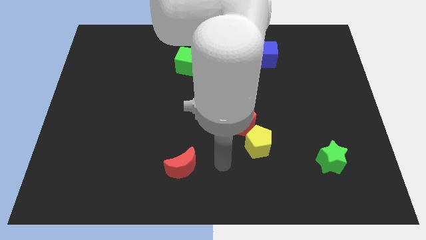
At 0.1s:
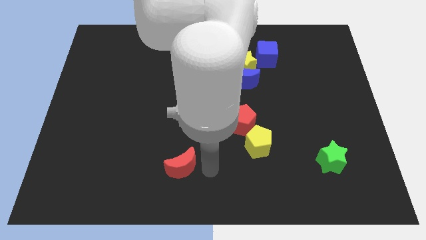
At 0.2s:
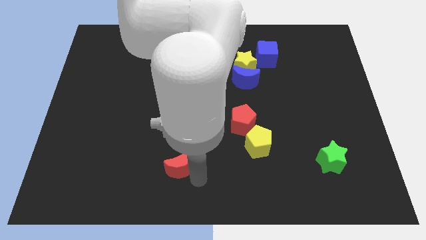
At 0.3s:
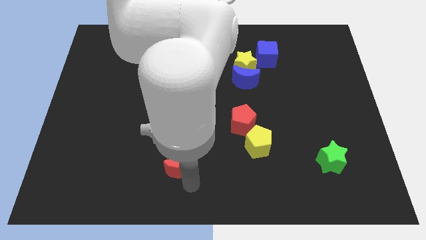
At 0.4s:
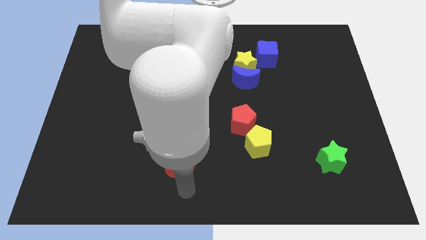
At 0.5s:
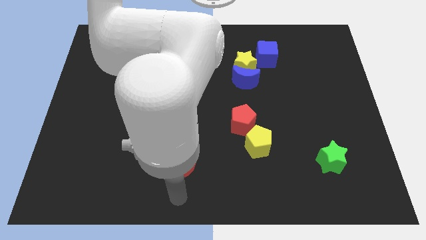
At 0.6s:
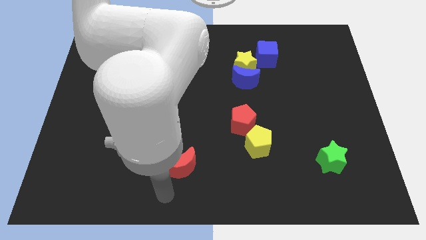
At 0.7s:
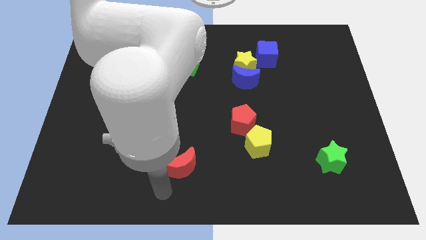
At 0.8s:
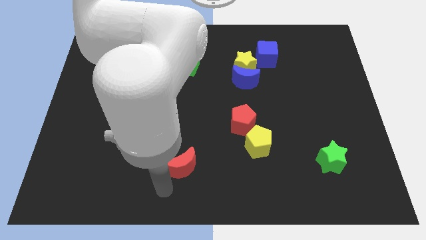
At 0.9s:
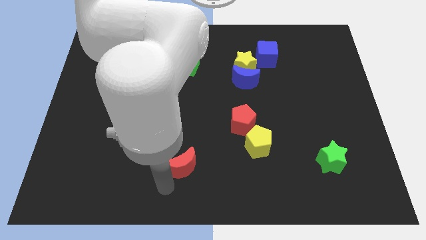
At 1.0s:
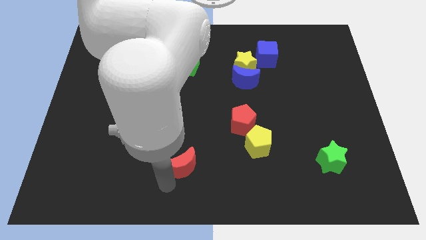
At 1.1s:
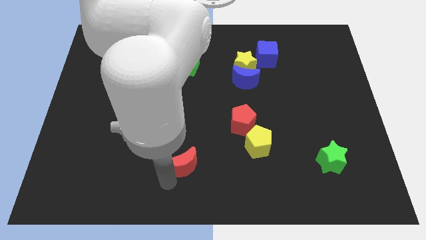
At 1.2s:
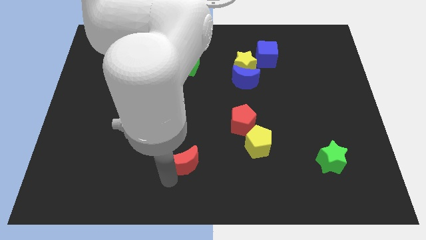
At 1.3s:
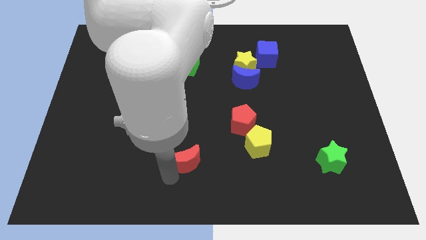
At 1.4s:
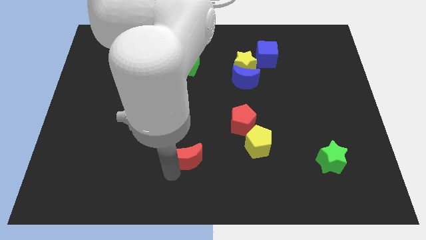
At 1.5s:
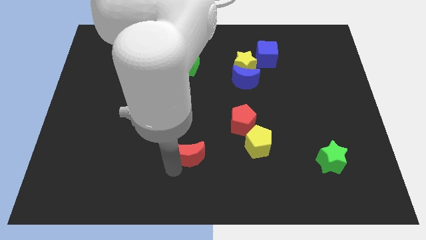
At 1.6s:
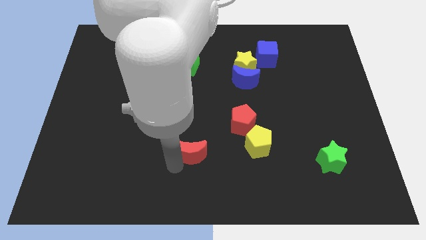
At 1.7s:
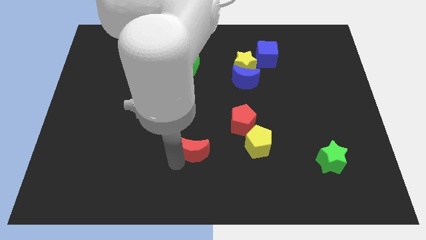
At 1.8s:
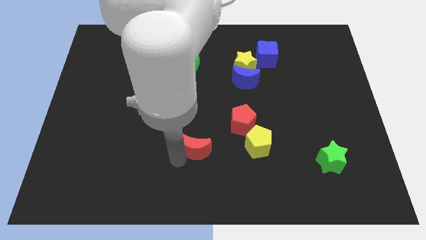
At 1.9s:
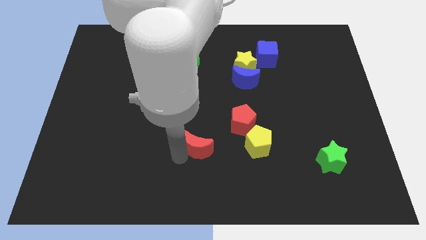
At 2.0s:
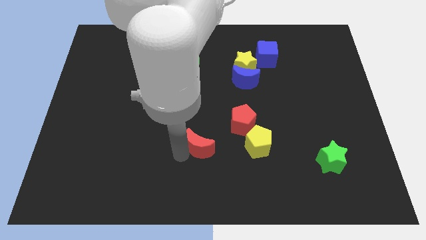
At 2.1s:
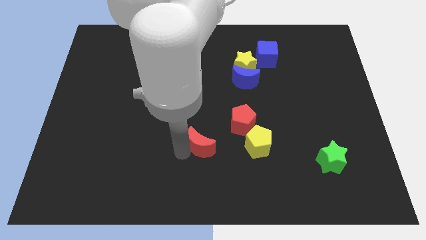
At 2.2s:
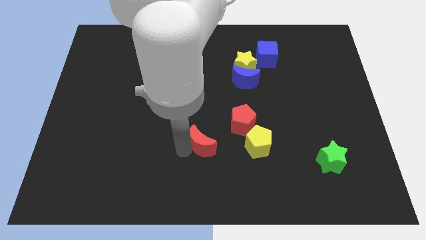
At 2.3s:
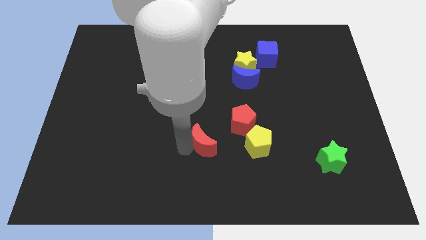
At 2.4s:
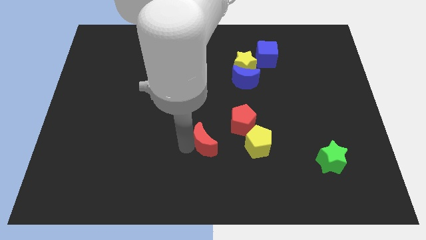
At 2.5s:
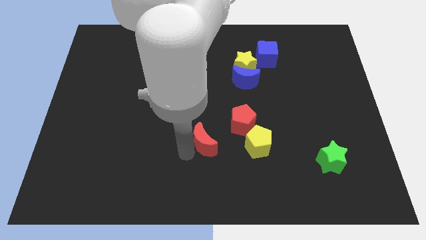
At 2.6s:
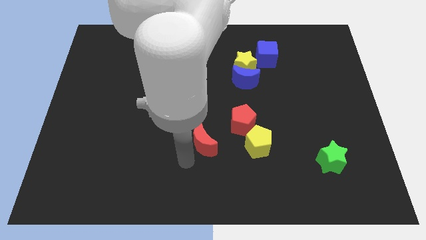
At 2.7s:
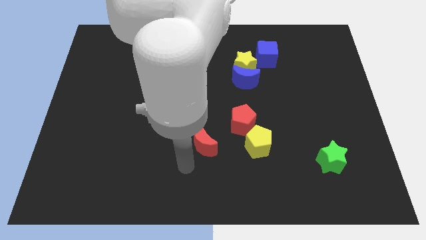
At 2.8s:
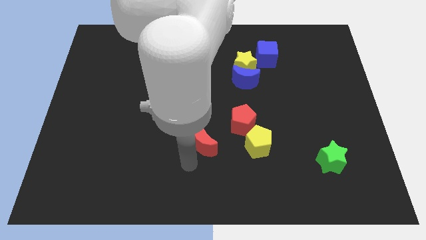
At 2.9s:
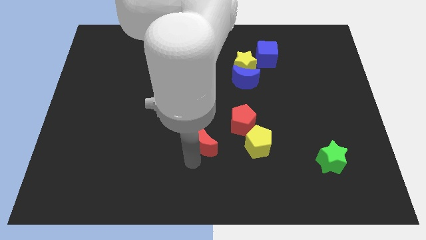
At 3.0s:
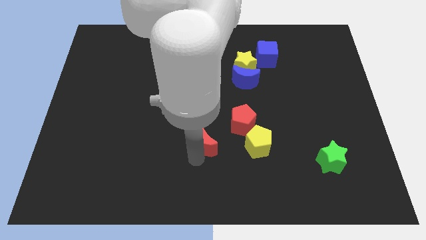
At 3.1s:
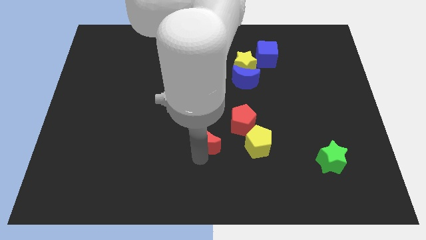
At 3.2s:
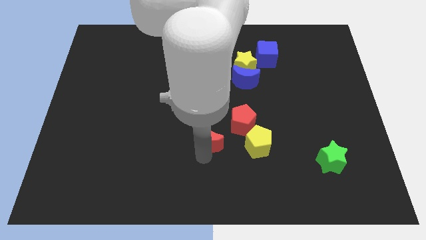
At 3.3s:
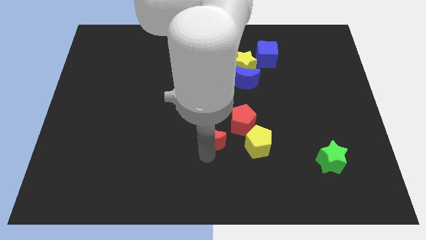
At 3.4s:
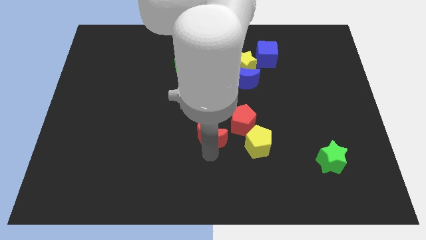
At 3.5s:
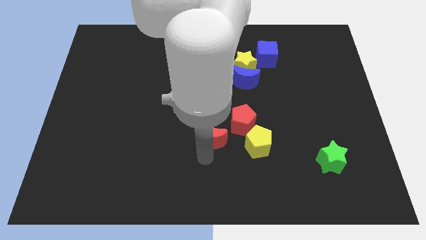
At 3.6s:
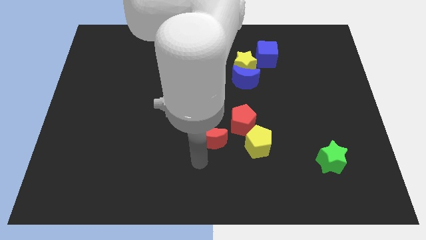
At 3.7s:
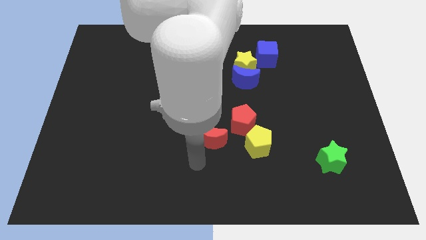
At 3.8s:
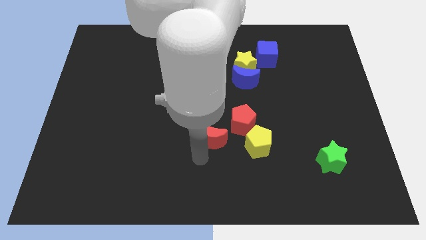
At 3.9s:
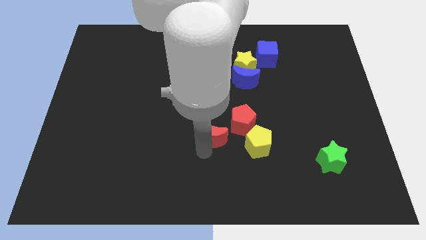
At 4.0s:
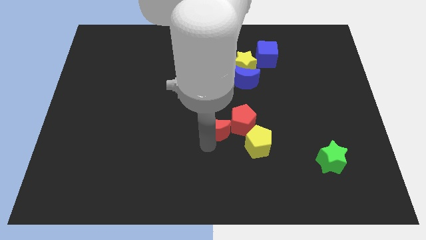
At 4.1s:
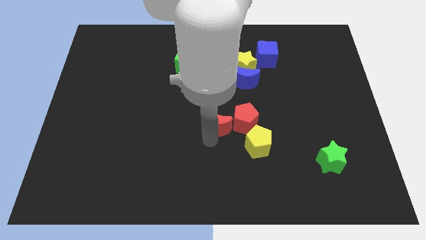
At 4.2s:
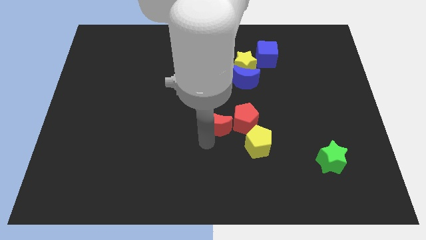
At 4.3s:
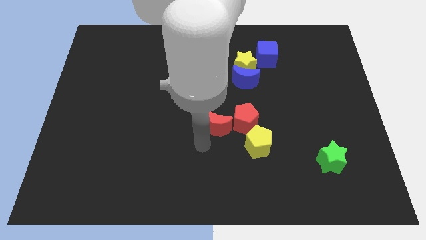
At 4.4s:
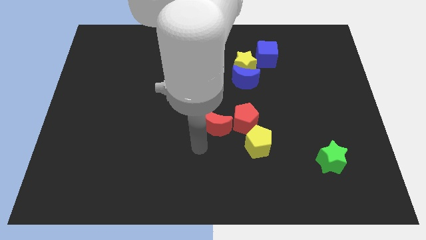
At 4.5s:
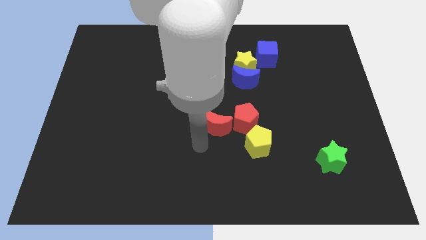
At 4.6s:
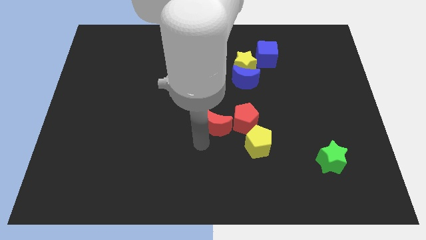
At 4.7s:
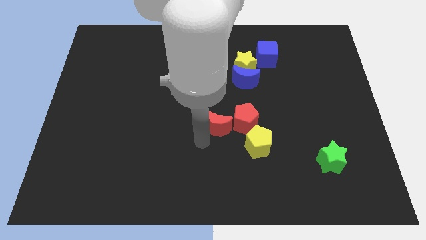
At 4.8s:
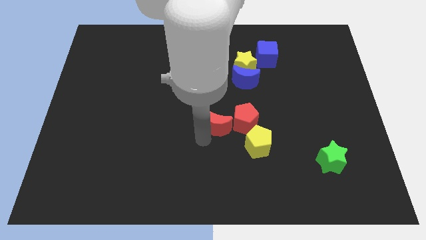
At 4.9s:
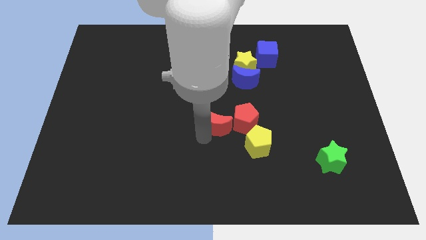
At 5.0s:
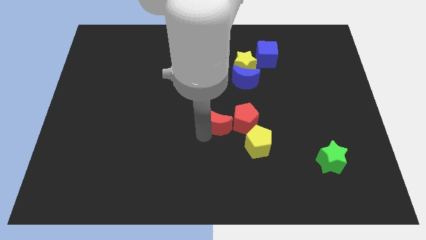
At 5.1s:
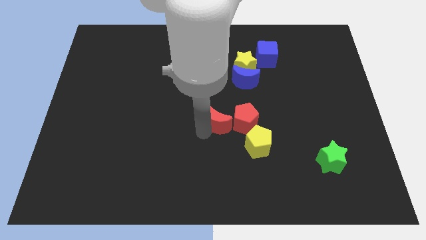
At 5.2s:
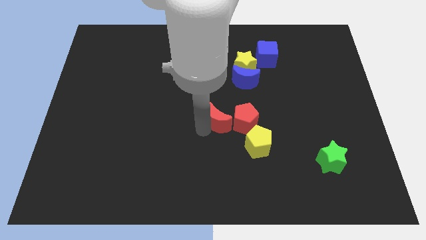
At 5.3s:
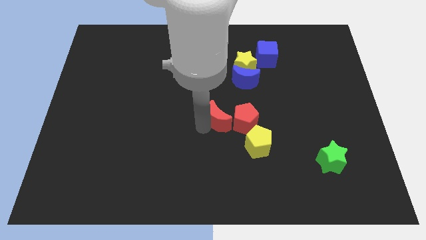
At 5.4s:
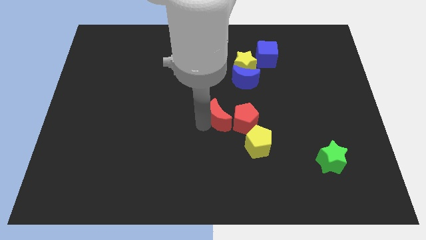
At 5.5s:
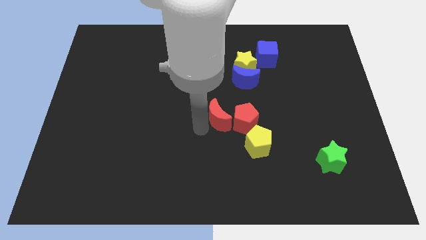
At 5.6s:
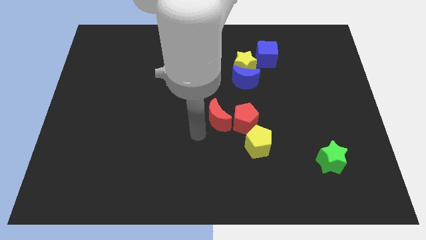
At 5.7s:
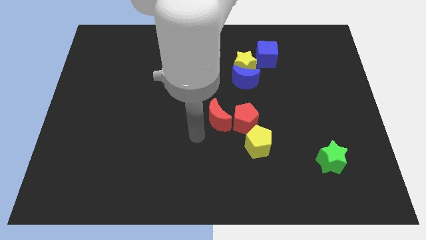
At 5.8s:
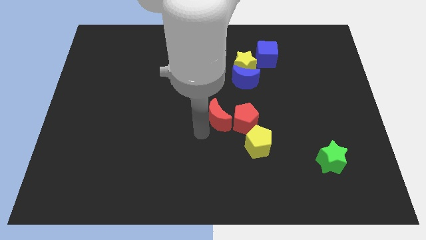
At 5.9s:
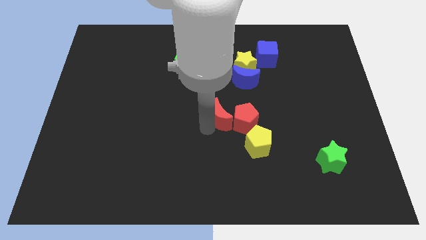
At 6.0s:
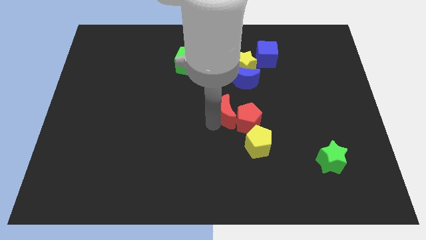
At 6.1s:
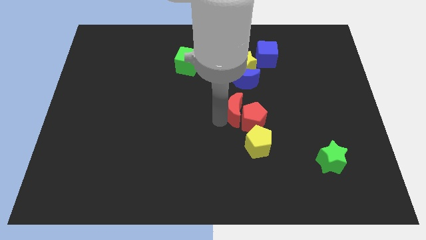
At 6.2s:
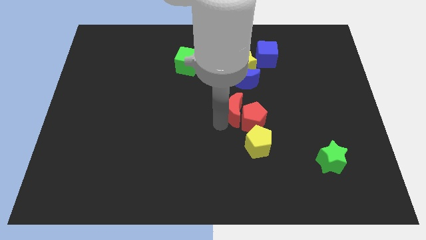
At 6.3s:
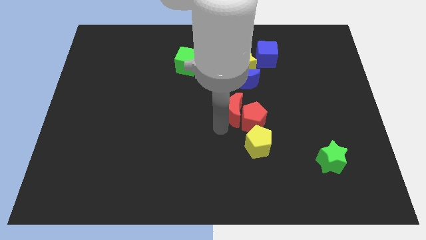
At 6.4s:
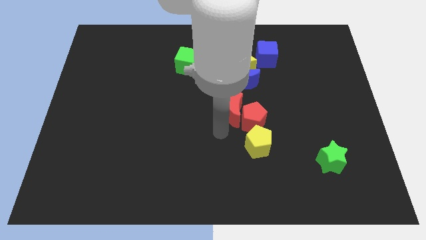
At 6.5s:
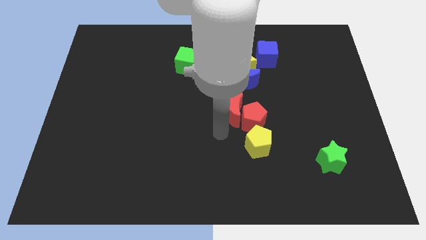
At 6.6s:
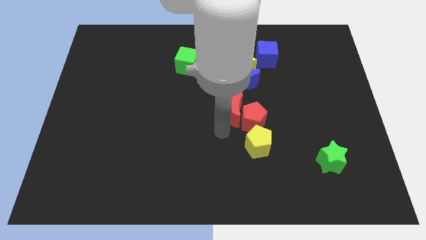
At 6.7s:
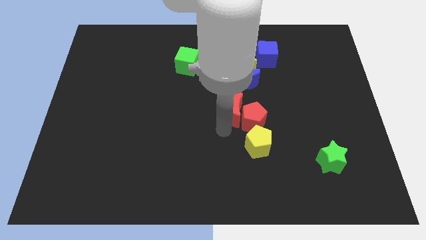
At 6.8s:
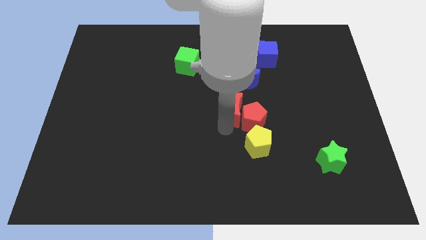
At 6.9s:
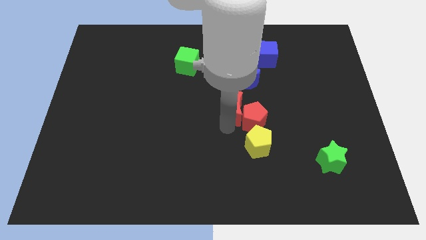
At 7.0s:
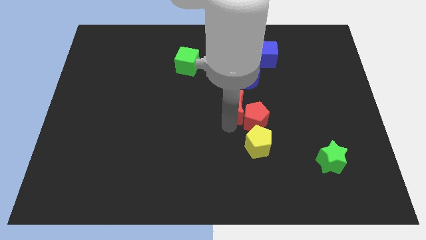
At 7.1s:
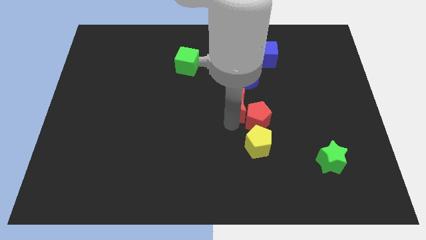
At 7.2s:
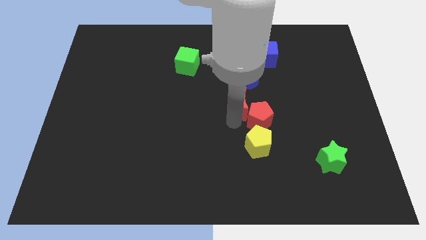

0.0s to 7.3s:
push the red moon diagonally up and right

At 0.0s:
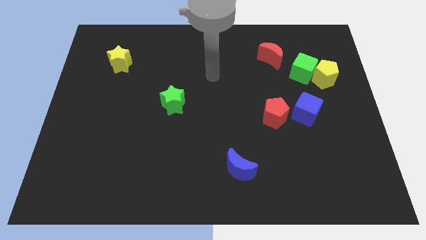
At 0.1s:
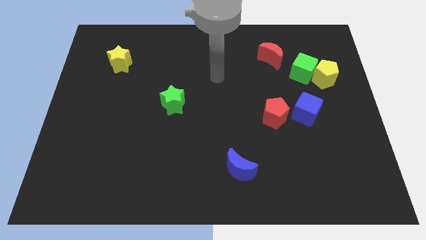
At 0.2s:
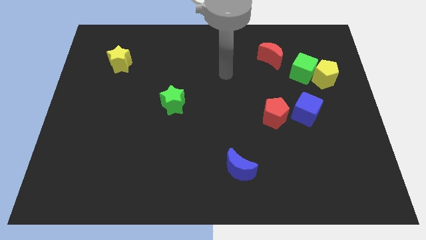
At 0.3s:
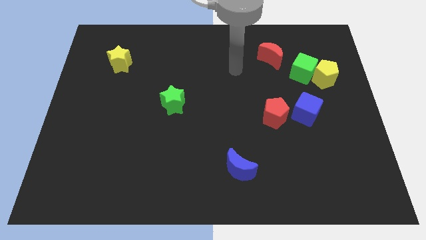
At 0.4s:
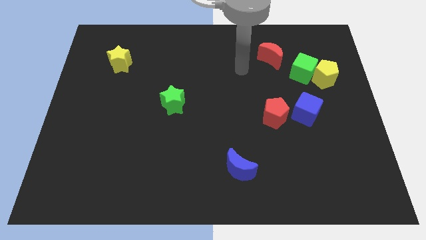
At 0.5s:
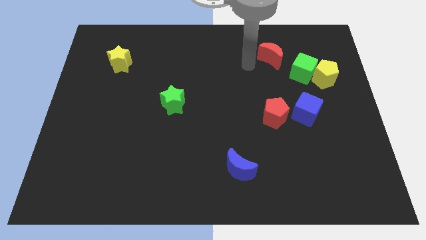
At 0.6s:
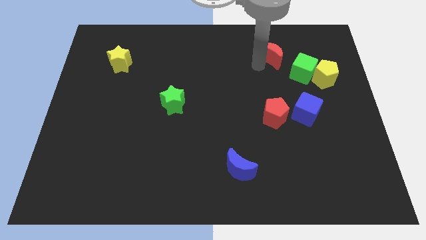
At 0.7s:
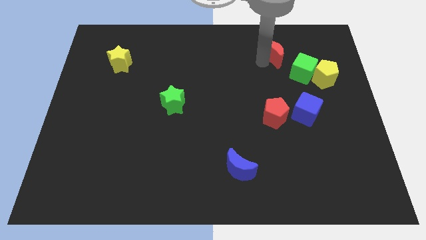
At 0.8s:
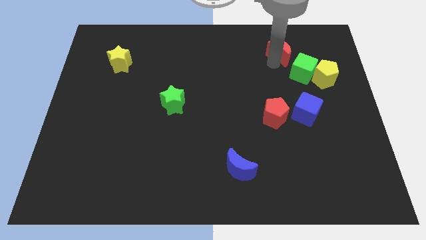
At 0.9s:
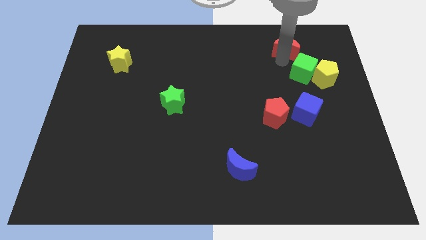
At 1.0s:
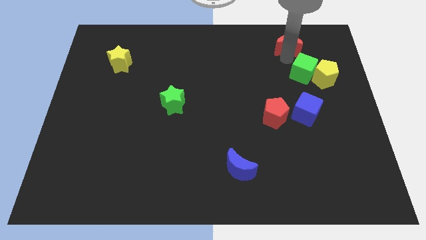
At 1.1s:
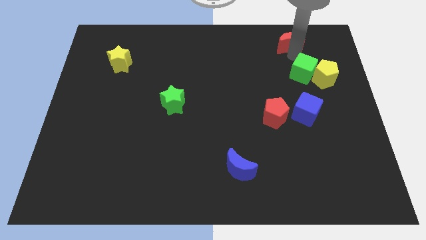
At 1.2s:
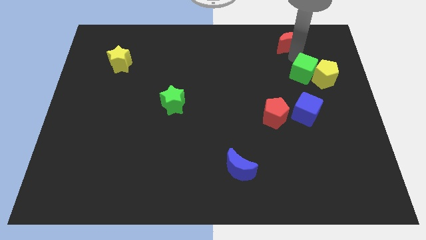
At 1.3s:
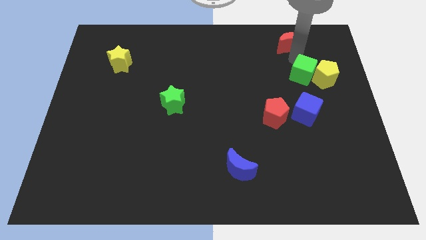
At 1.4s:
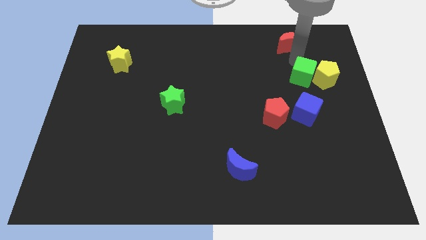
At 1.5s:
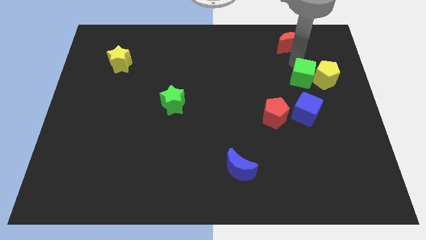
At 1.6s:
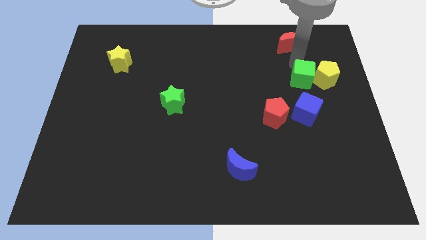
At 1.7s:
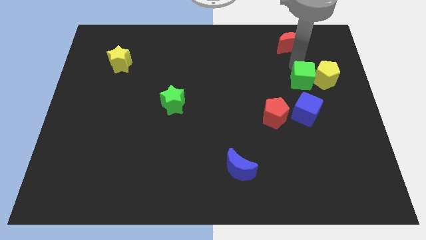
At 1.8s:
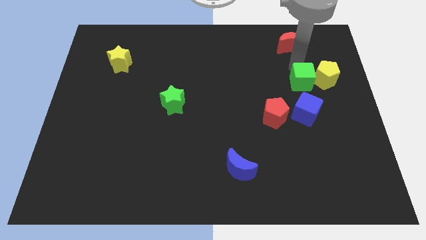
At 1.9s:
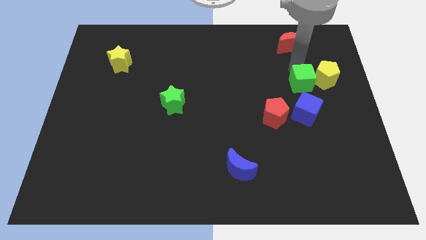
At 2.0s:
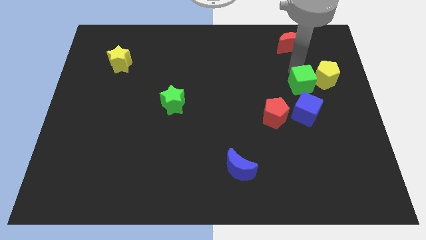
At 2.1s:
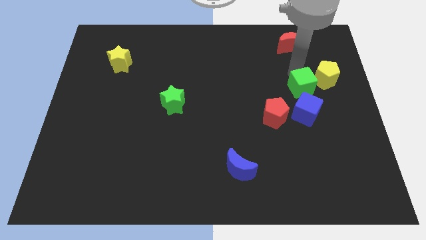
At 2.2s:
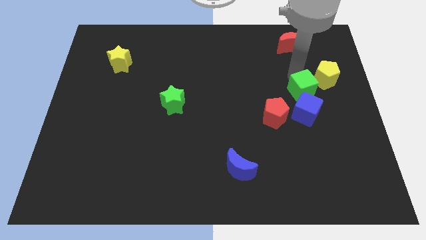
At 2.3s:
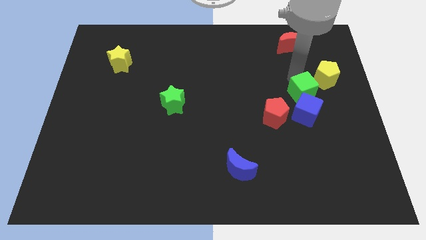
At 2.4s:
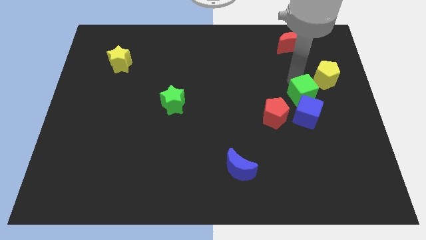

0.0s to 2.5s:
slide the green cube a little downwards
